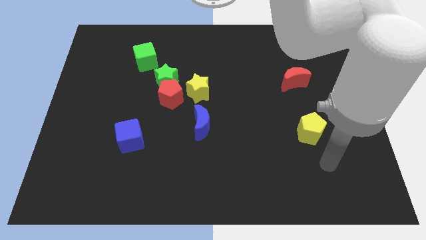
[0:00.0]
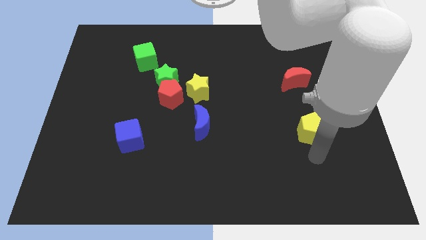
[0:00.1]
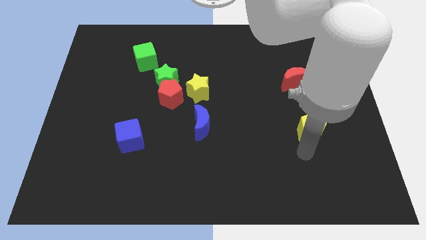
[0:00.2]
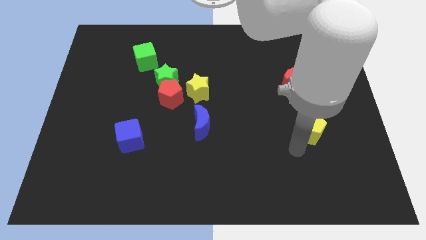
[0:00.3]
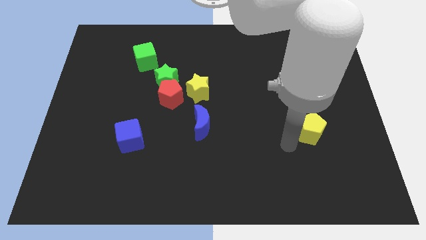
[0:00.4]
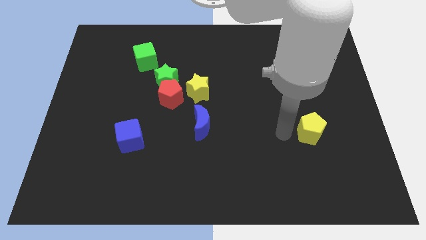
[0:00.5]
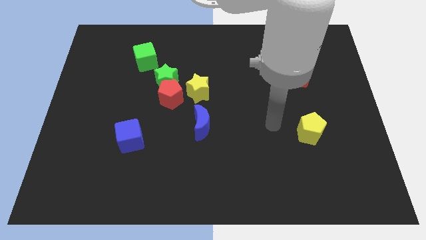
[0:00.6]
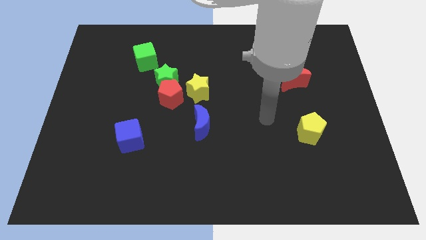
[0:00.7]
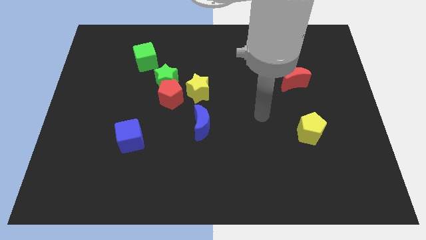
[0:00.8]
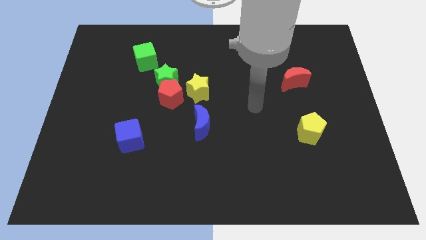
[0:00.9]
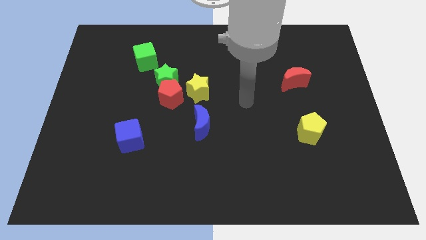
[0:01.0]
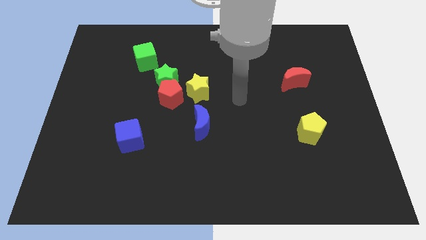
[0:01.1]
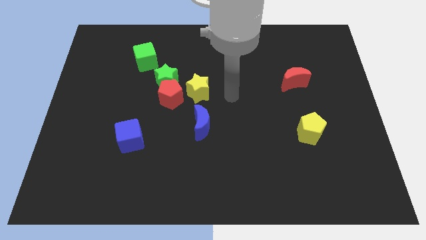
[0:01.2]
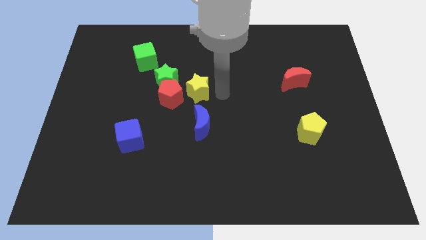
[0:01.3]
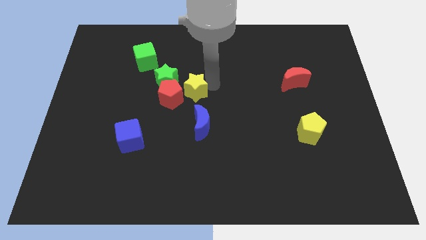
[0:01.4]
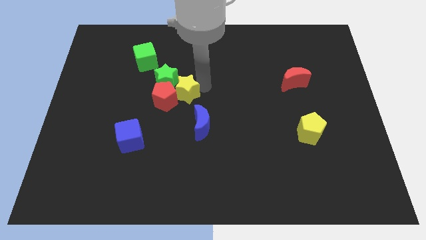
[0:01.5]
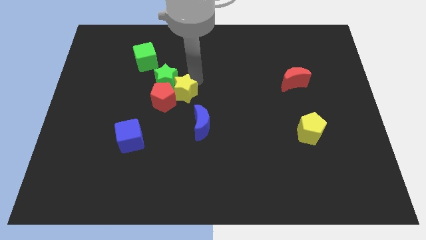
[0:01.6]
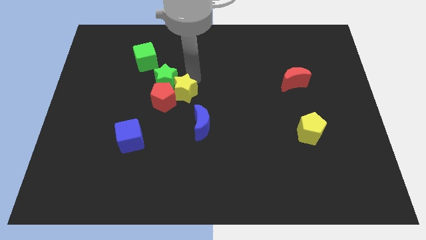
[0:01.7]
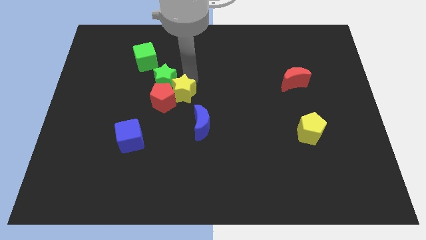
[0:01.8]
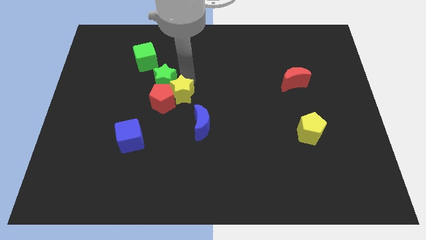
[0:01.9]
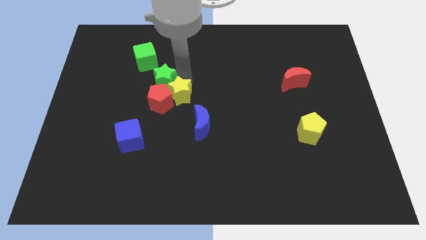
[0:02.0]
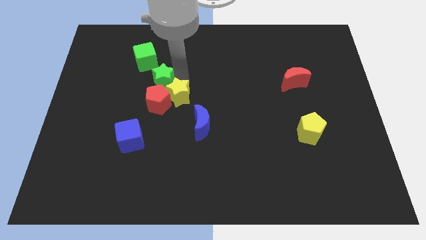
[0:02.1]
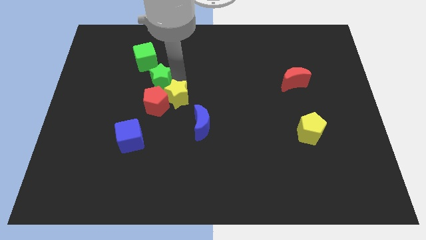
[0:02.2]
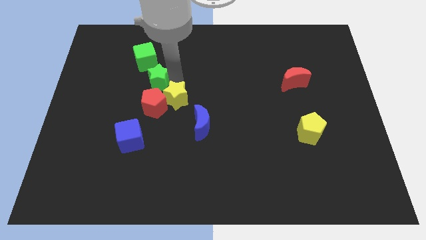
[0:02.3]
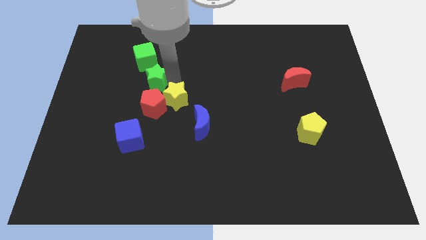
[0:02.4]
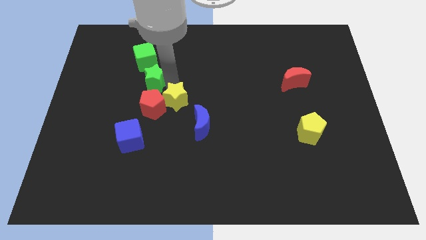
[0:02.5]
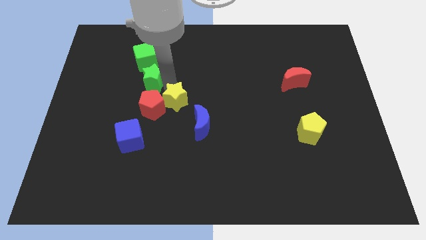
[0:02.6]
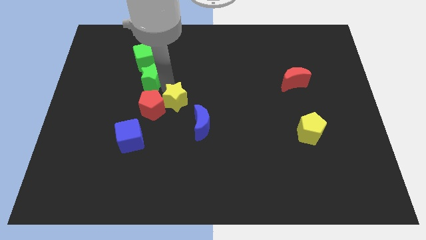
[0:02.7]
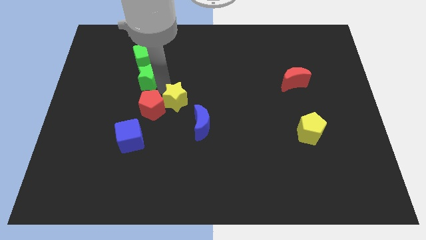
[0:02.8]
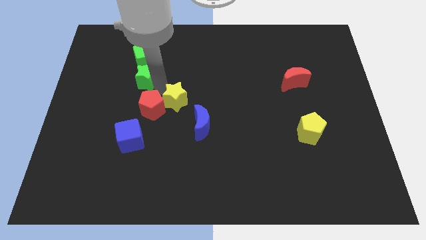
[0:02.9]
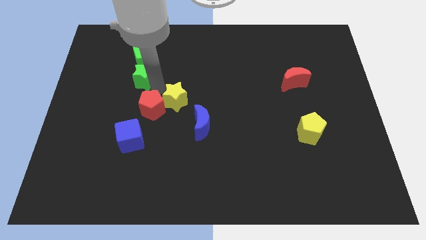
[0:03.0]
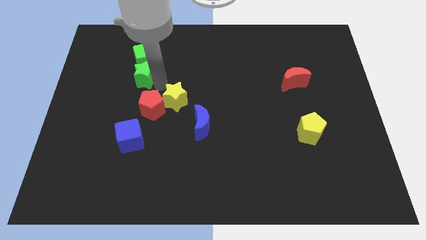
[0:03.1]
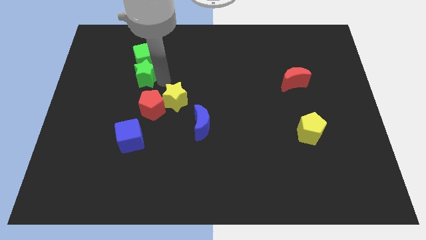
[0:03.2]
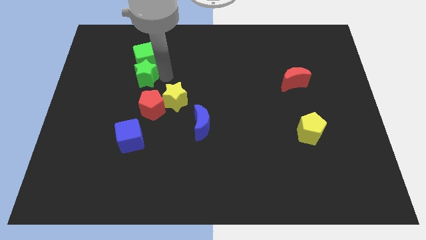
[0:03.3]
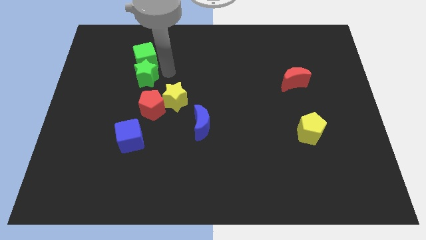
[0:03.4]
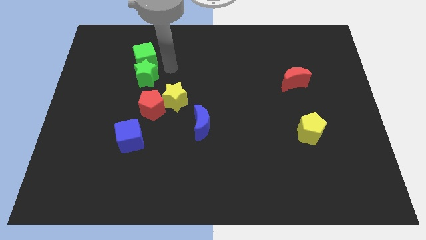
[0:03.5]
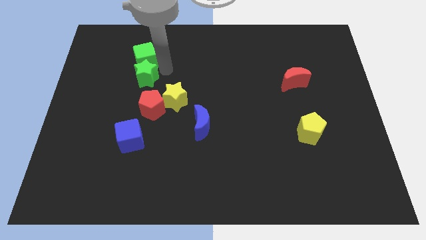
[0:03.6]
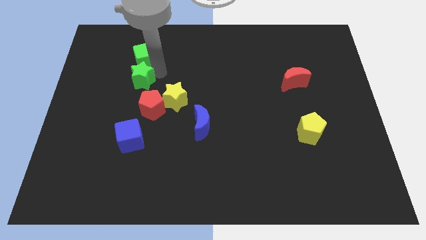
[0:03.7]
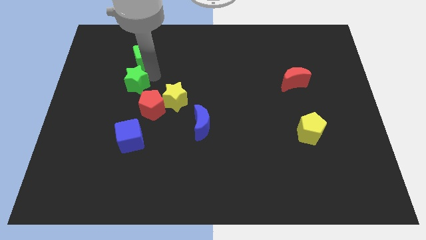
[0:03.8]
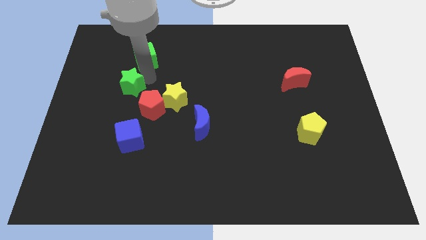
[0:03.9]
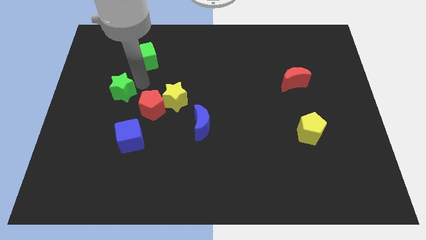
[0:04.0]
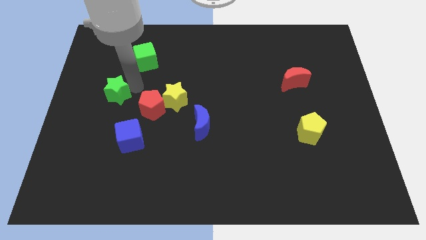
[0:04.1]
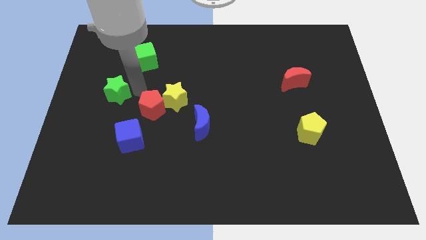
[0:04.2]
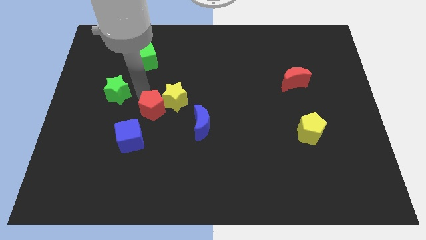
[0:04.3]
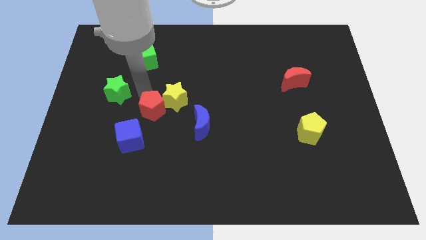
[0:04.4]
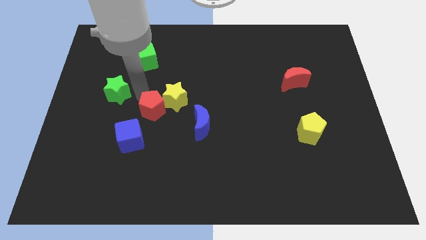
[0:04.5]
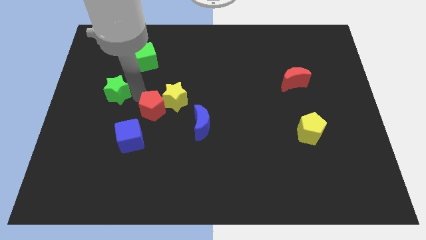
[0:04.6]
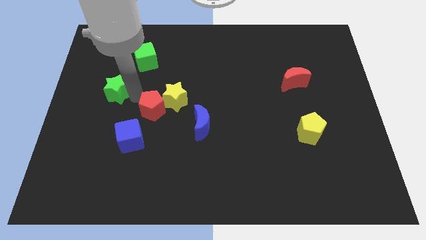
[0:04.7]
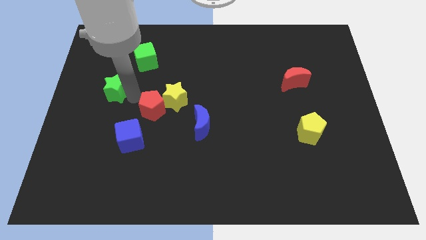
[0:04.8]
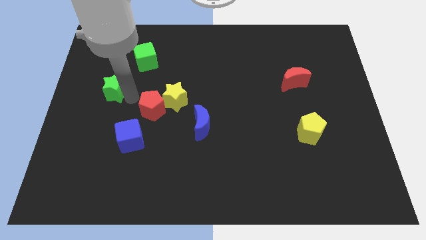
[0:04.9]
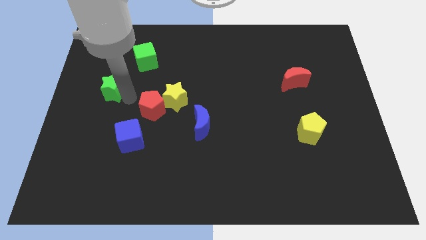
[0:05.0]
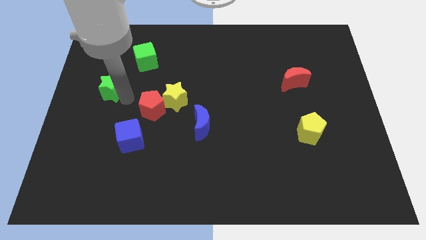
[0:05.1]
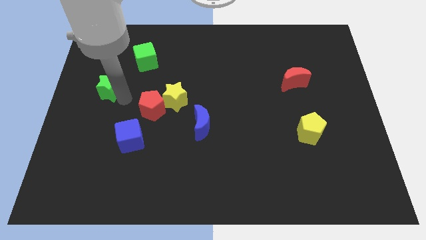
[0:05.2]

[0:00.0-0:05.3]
put the green star to the left side

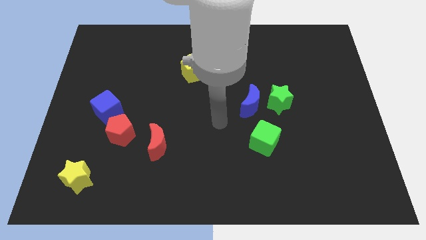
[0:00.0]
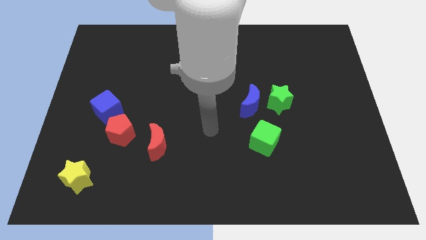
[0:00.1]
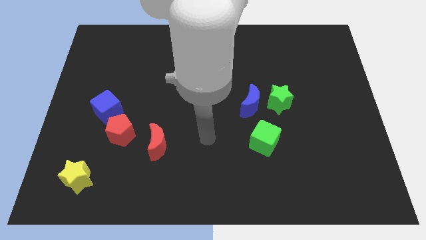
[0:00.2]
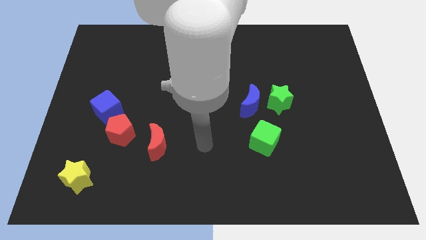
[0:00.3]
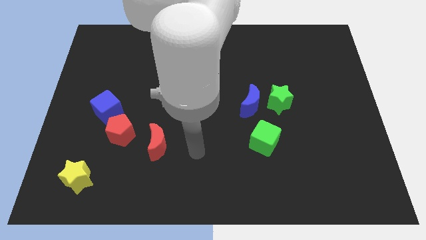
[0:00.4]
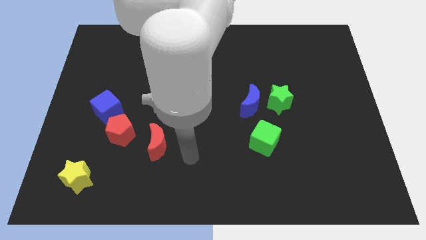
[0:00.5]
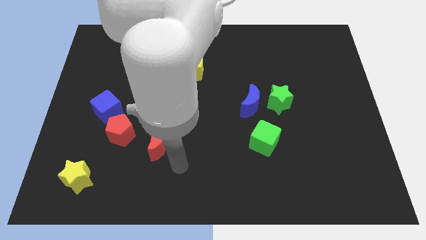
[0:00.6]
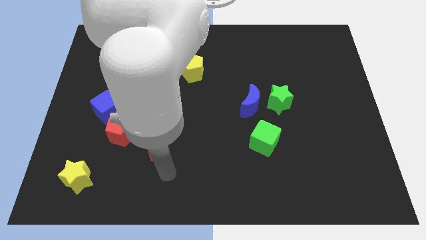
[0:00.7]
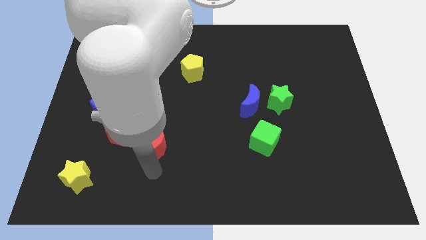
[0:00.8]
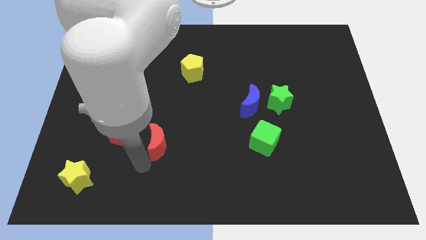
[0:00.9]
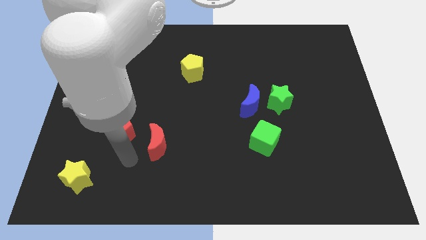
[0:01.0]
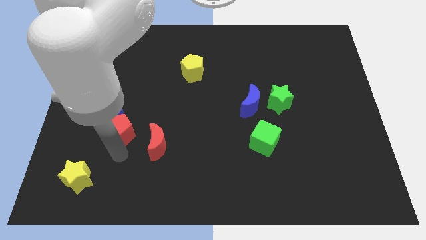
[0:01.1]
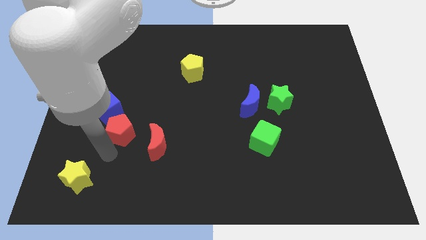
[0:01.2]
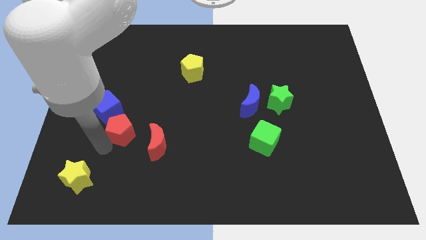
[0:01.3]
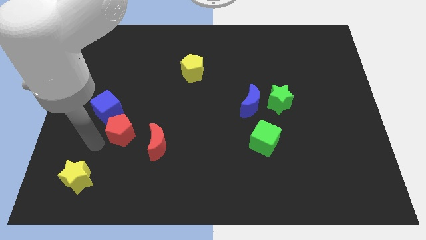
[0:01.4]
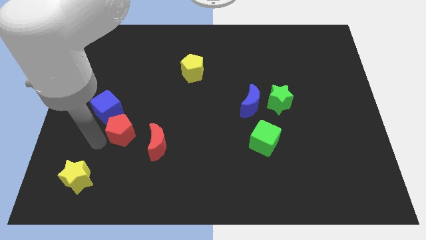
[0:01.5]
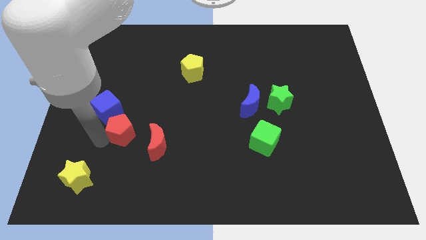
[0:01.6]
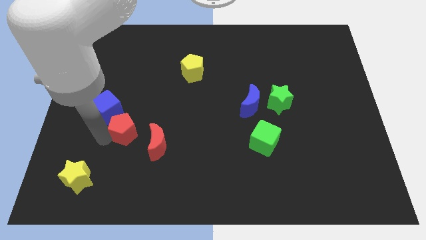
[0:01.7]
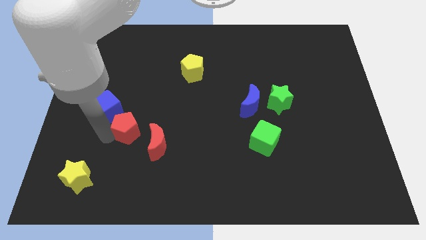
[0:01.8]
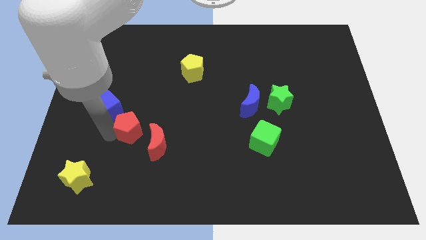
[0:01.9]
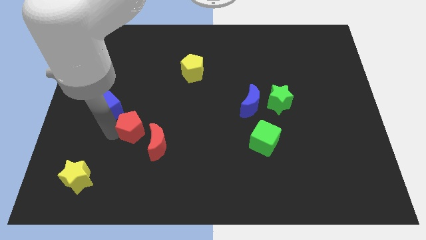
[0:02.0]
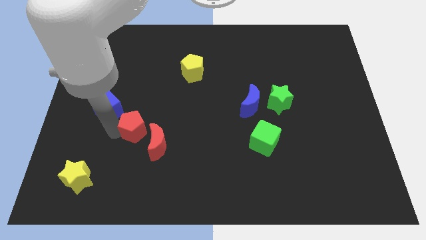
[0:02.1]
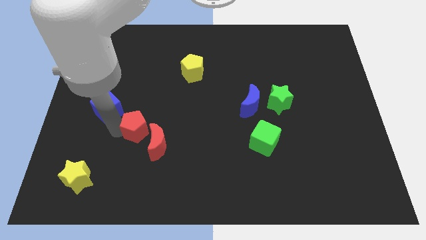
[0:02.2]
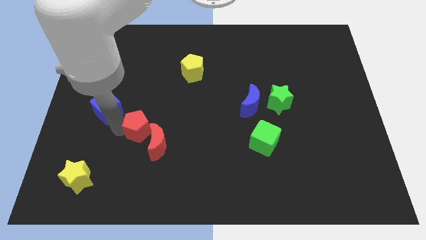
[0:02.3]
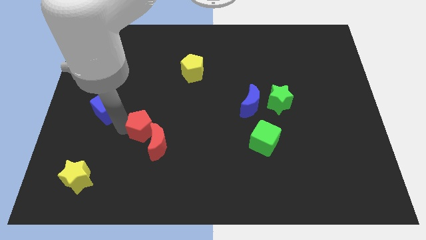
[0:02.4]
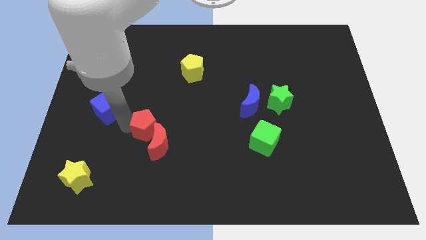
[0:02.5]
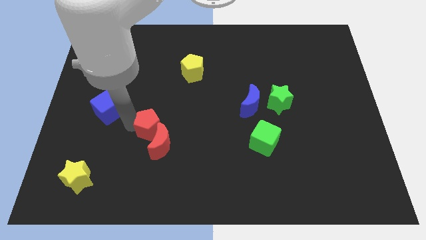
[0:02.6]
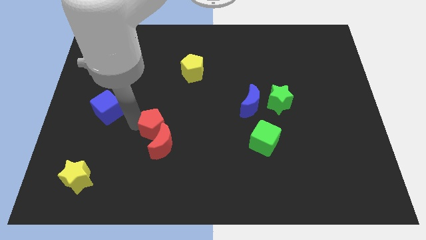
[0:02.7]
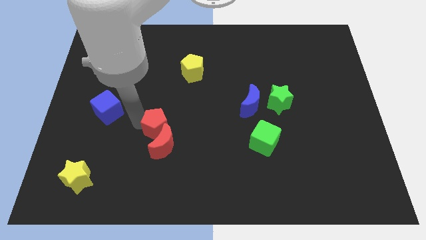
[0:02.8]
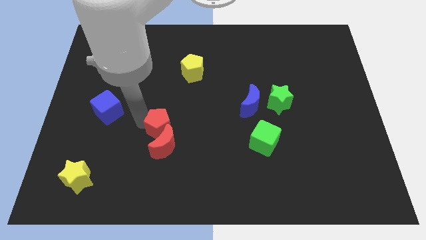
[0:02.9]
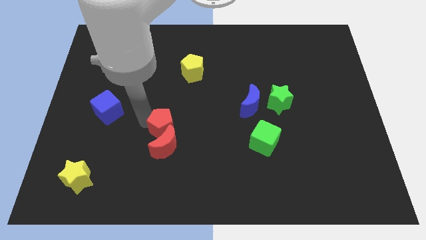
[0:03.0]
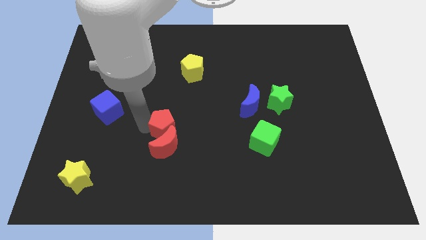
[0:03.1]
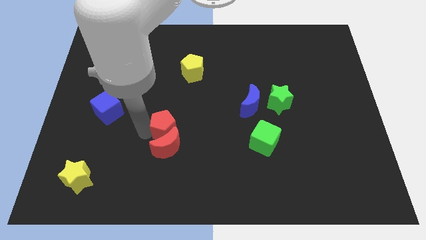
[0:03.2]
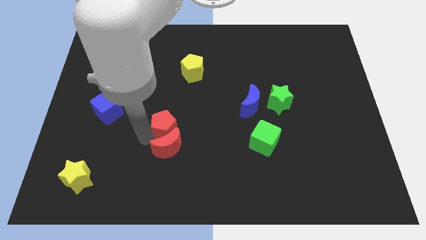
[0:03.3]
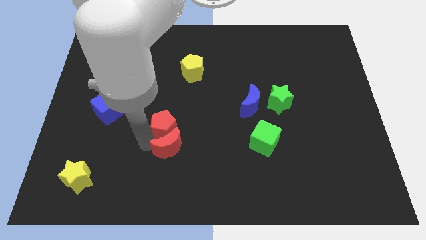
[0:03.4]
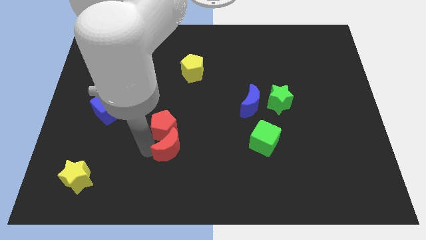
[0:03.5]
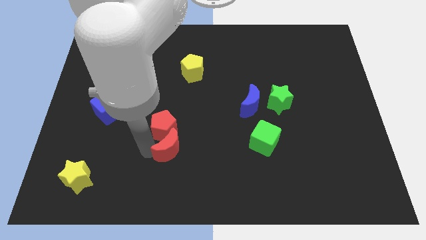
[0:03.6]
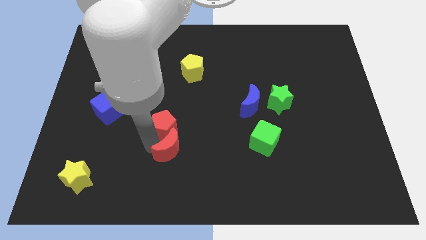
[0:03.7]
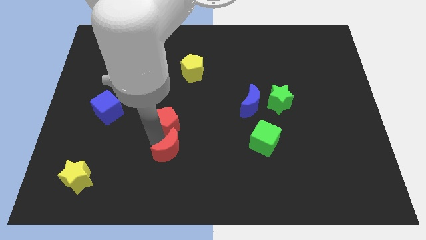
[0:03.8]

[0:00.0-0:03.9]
slide the red pentagon to the middle of the board
